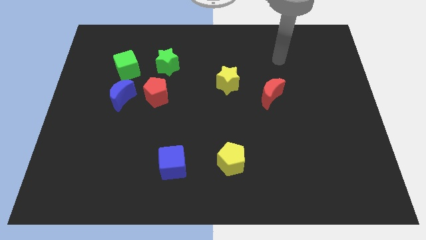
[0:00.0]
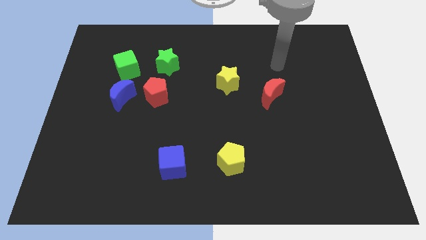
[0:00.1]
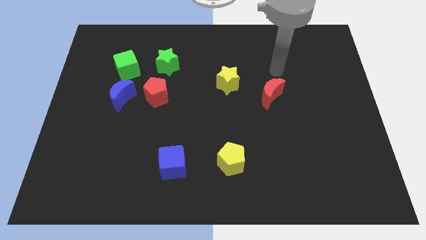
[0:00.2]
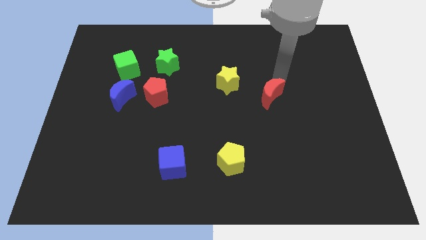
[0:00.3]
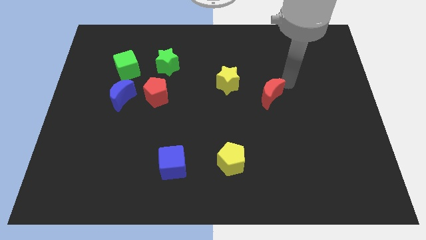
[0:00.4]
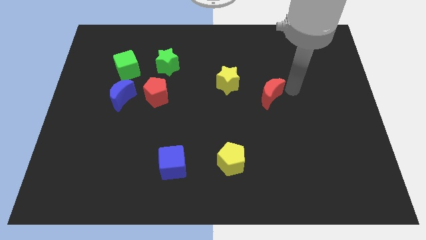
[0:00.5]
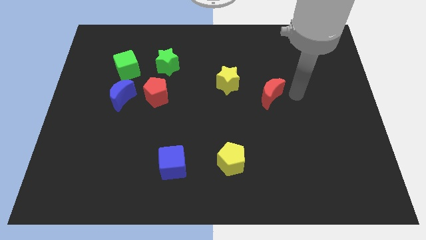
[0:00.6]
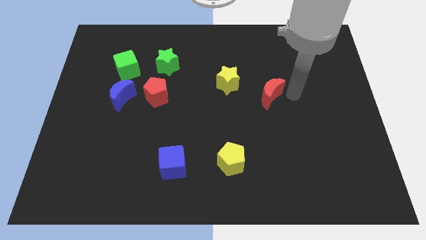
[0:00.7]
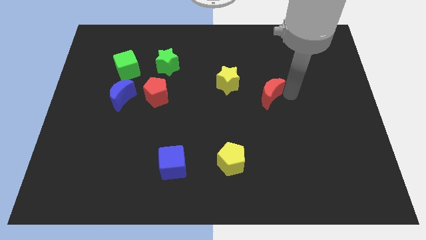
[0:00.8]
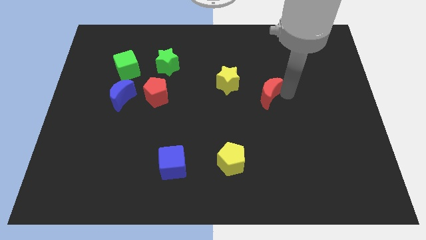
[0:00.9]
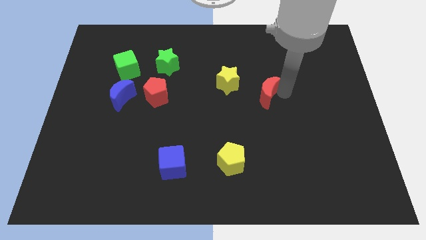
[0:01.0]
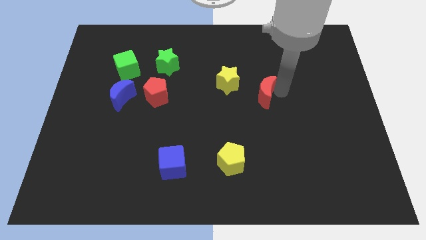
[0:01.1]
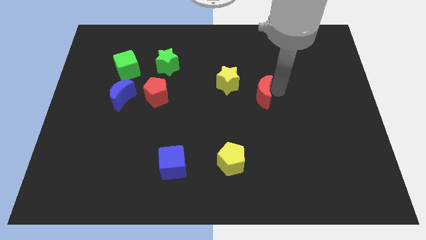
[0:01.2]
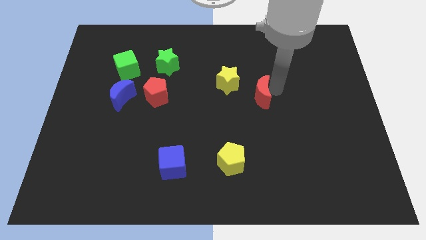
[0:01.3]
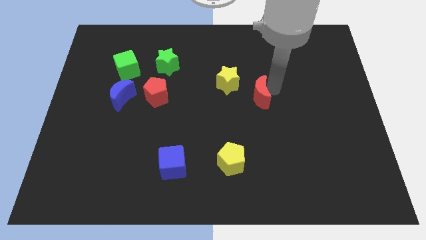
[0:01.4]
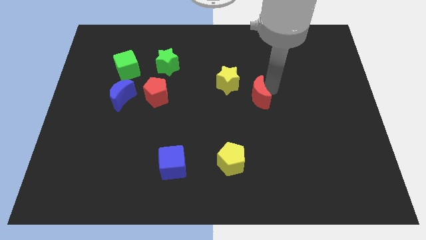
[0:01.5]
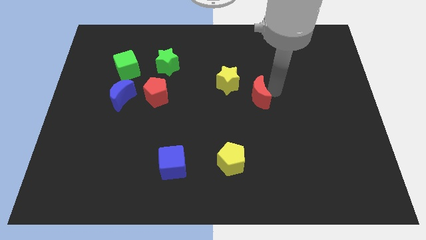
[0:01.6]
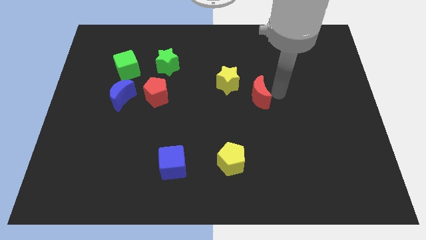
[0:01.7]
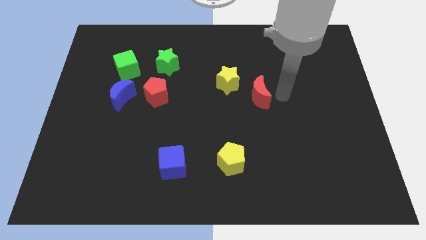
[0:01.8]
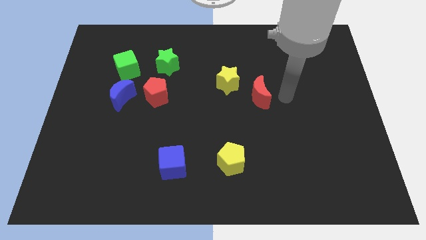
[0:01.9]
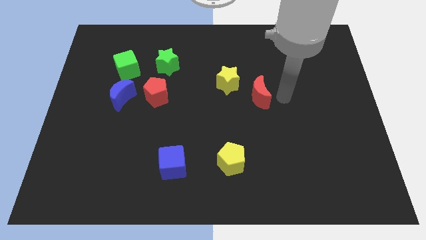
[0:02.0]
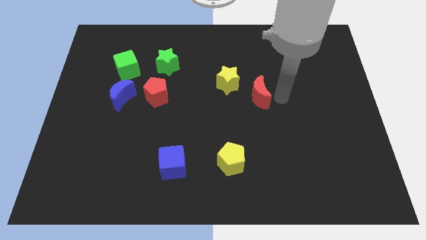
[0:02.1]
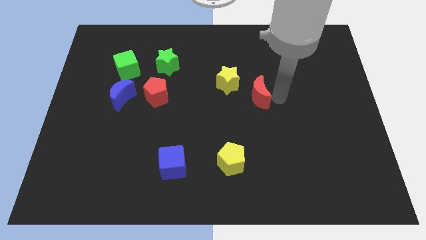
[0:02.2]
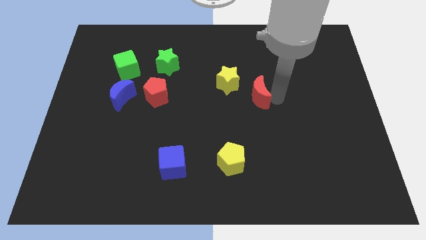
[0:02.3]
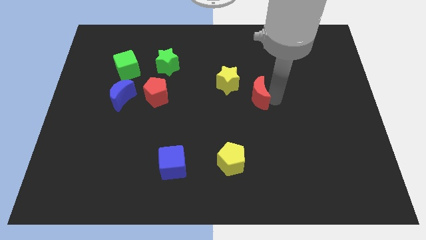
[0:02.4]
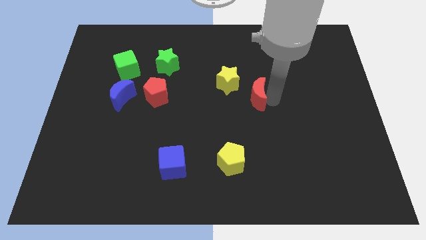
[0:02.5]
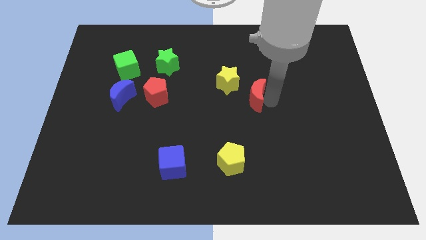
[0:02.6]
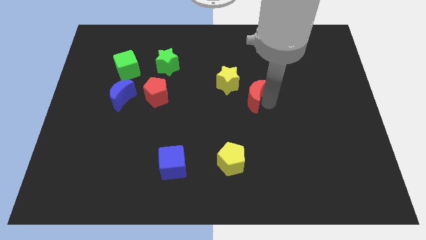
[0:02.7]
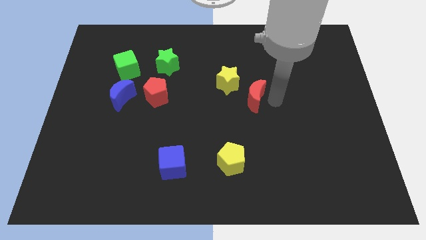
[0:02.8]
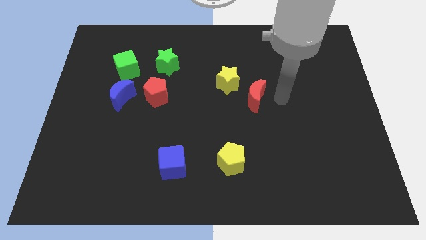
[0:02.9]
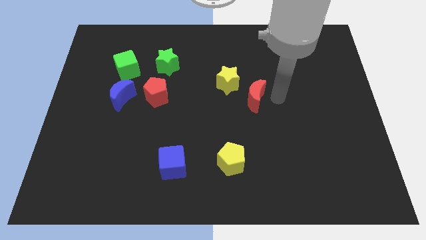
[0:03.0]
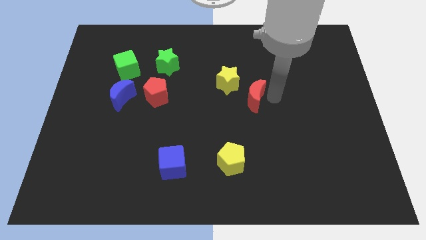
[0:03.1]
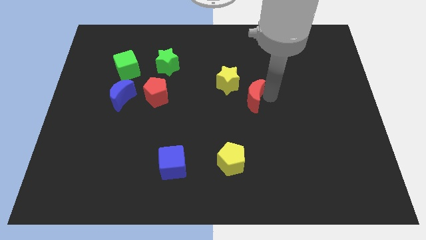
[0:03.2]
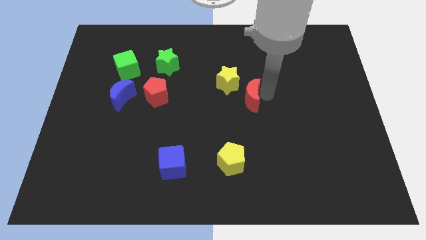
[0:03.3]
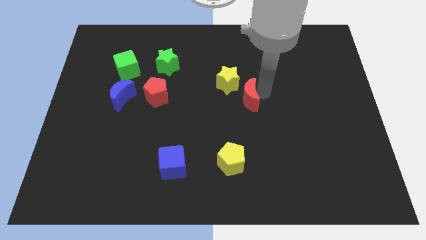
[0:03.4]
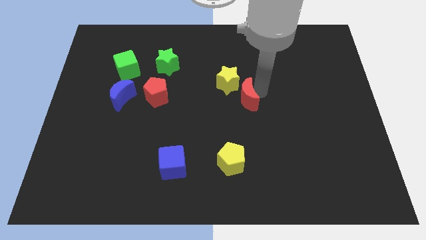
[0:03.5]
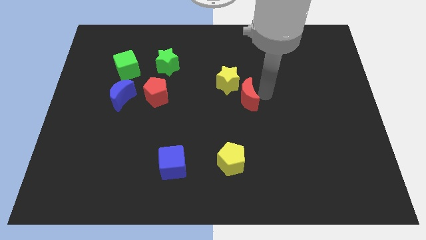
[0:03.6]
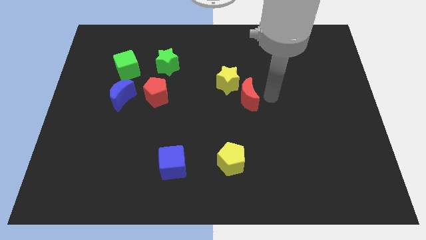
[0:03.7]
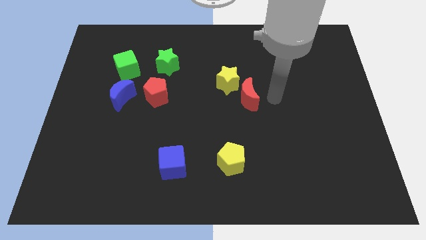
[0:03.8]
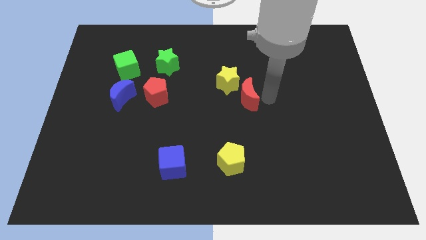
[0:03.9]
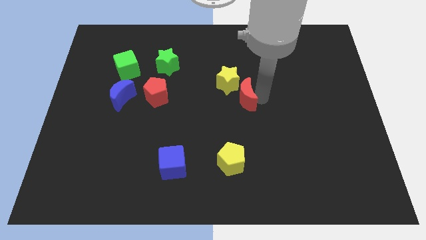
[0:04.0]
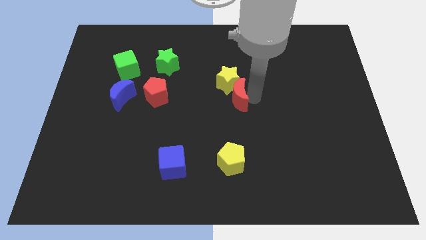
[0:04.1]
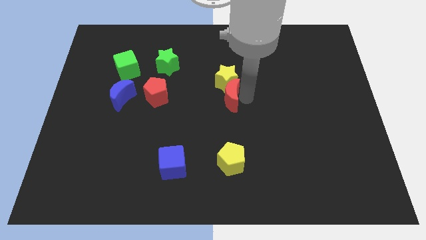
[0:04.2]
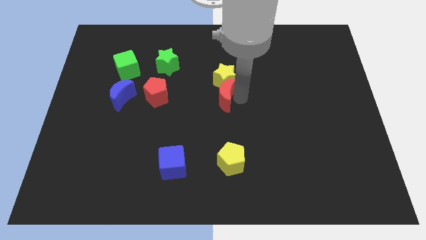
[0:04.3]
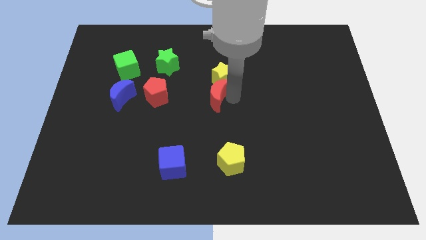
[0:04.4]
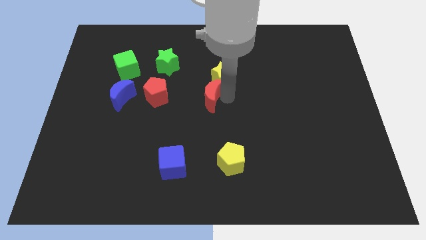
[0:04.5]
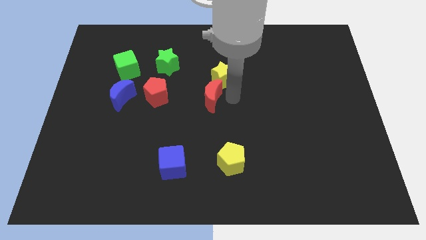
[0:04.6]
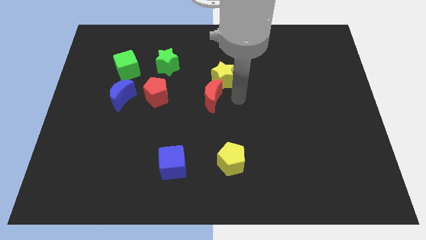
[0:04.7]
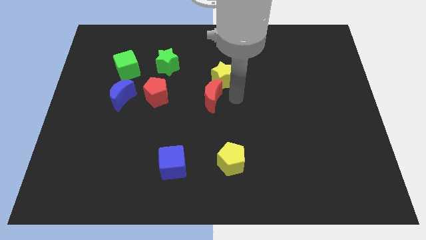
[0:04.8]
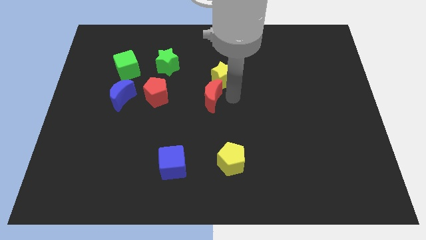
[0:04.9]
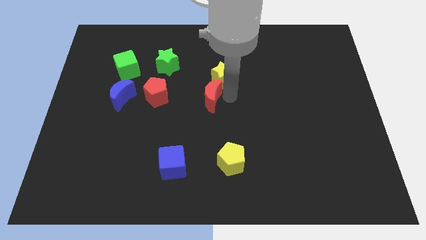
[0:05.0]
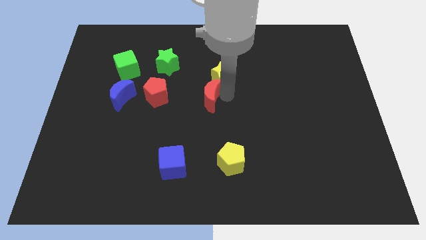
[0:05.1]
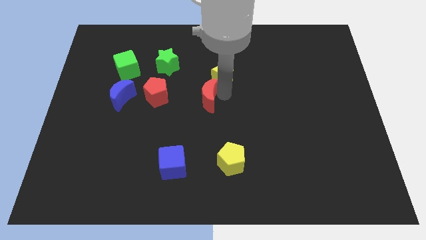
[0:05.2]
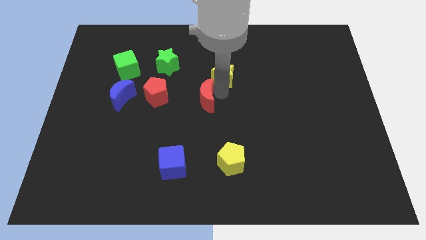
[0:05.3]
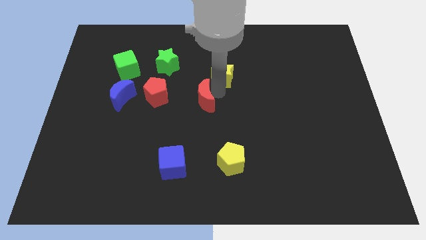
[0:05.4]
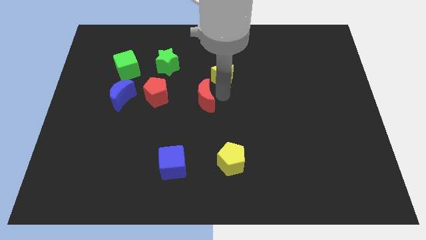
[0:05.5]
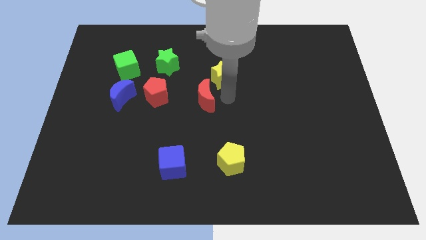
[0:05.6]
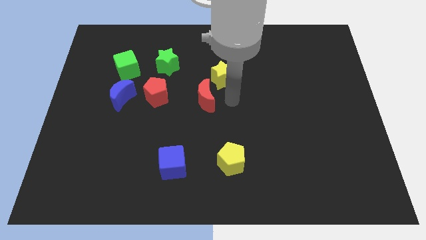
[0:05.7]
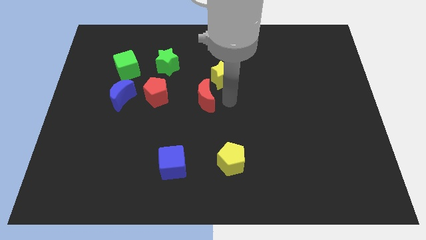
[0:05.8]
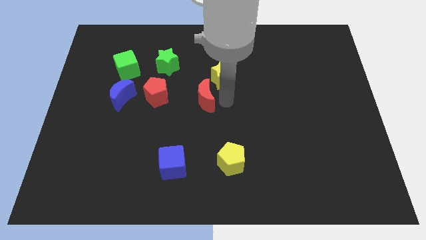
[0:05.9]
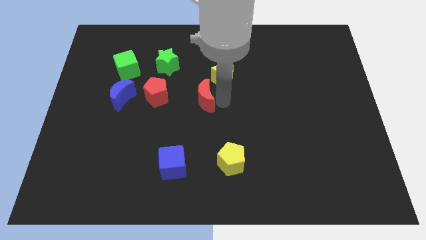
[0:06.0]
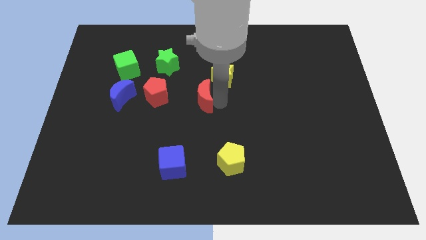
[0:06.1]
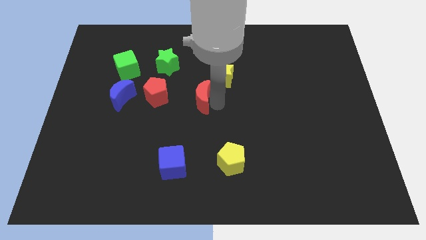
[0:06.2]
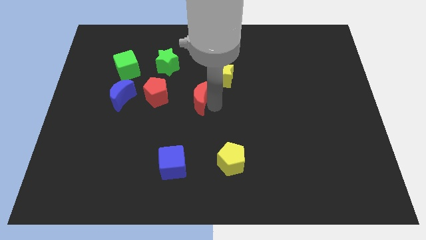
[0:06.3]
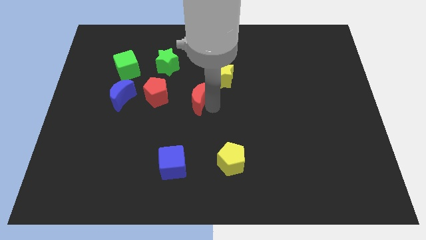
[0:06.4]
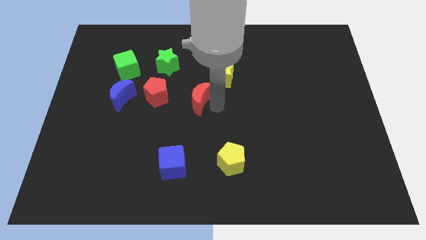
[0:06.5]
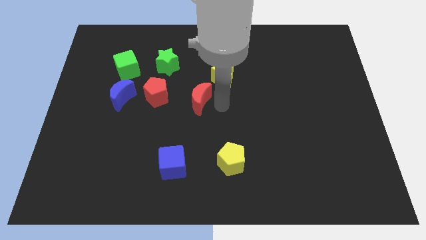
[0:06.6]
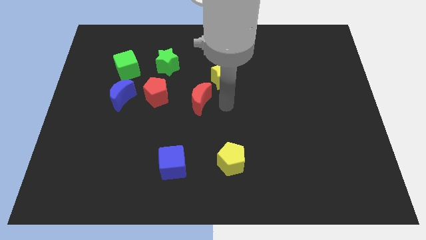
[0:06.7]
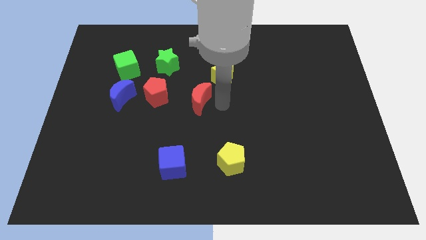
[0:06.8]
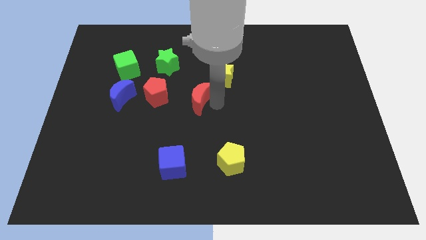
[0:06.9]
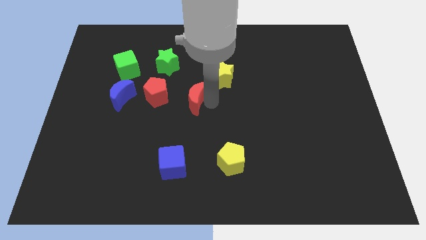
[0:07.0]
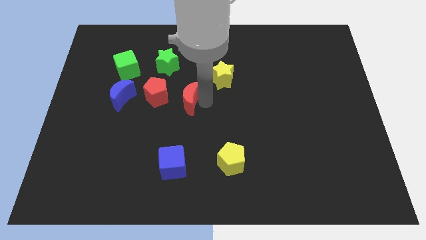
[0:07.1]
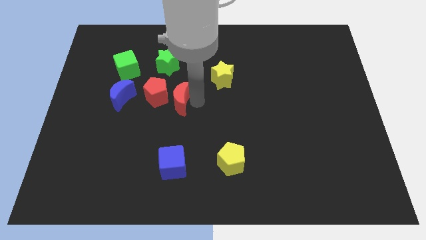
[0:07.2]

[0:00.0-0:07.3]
move the red moon next to the red pentagon
